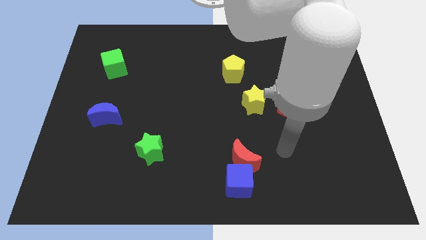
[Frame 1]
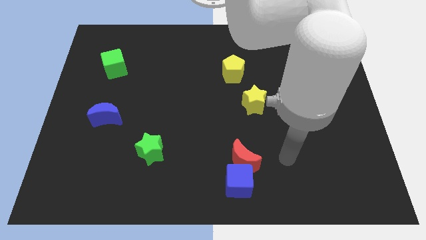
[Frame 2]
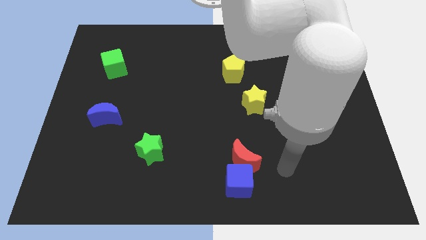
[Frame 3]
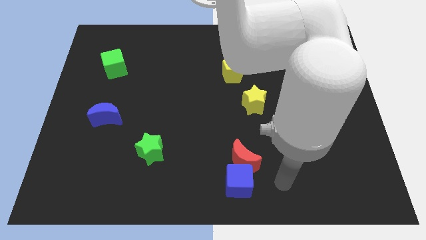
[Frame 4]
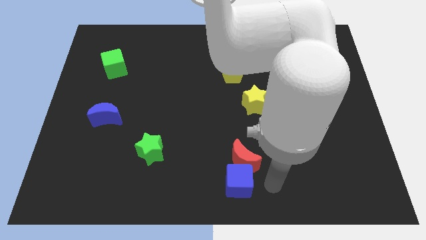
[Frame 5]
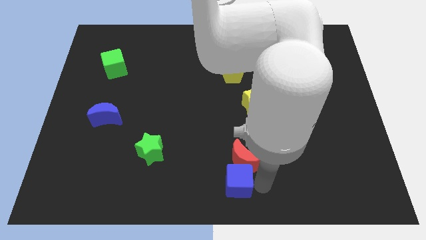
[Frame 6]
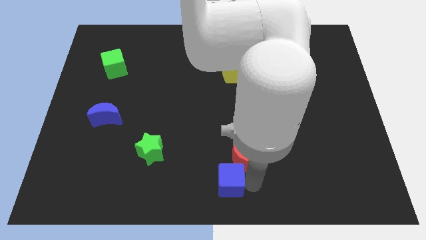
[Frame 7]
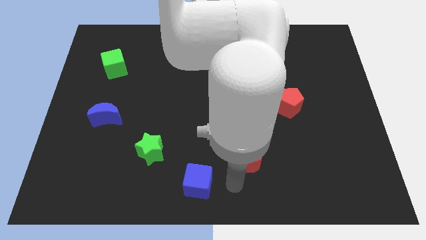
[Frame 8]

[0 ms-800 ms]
separate the red moon from the blue cube

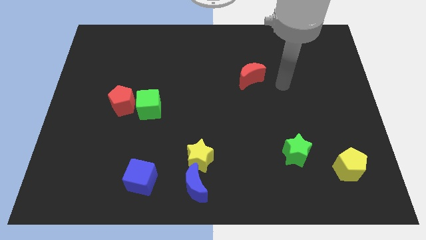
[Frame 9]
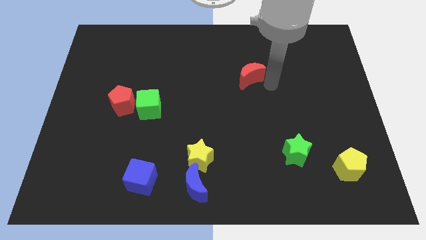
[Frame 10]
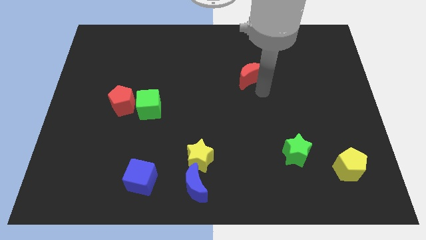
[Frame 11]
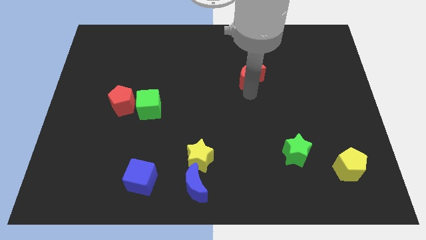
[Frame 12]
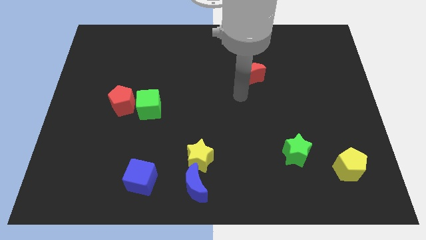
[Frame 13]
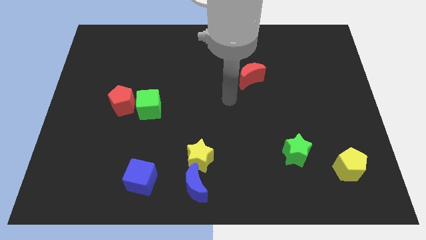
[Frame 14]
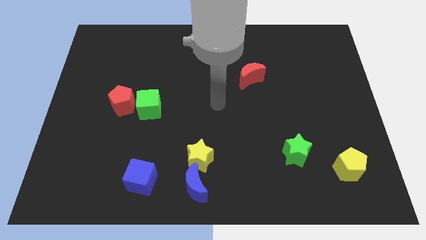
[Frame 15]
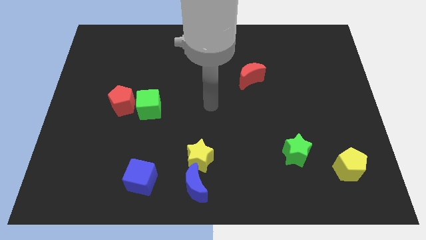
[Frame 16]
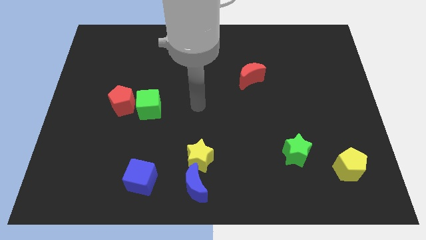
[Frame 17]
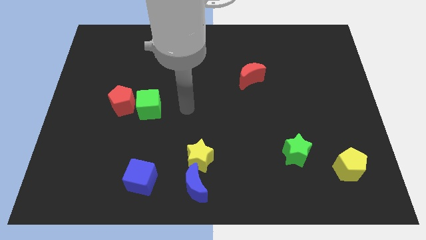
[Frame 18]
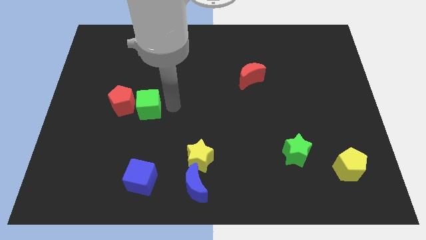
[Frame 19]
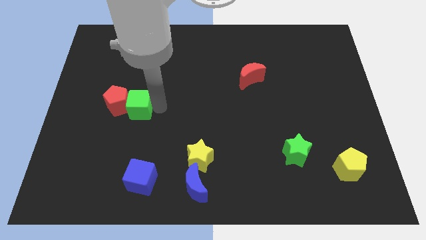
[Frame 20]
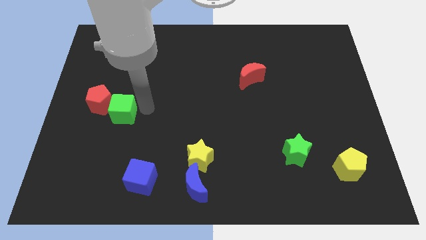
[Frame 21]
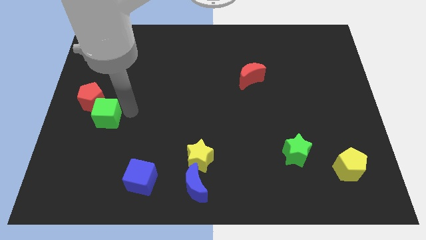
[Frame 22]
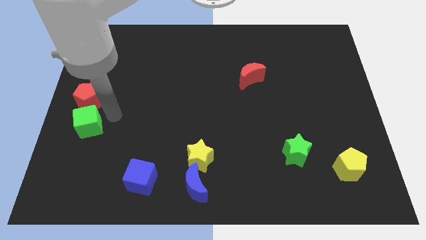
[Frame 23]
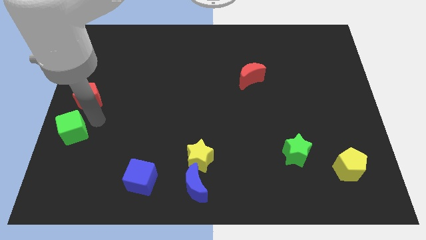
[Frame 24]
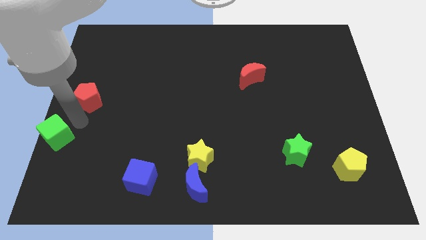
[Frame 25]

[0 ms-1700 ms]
move the red pentagon away from the green cube

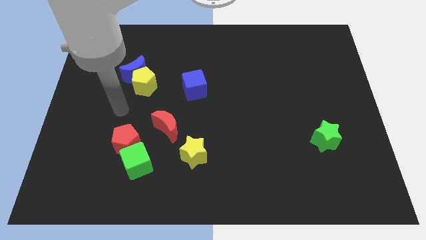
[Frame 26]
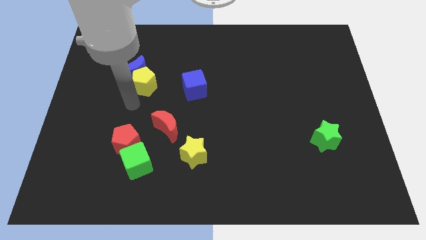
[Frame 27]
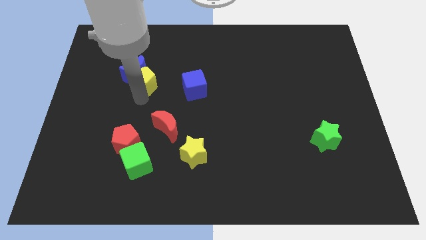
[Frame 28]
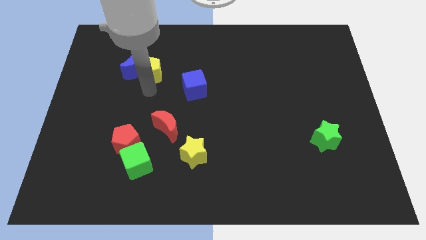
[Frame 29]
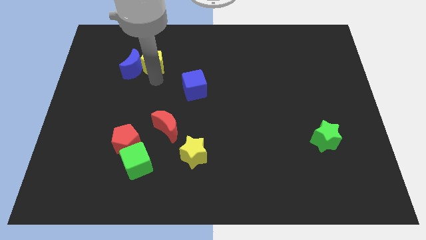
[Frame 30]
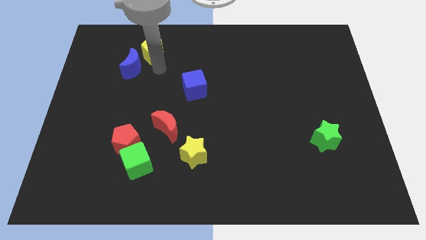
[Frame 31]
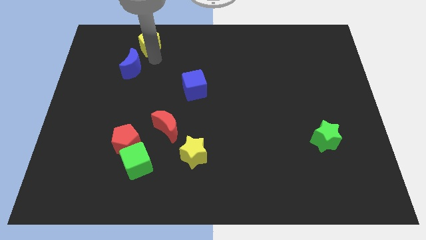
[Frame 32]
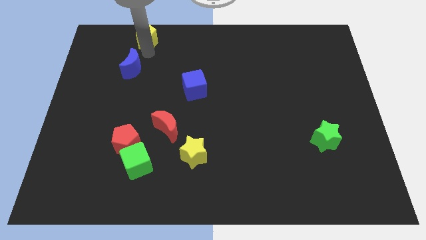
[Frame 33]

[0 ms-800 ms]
separate the blue moon from the yellow pentagon

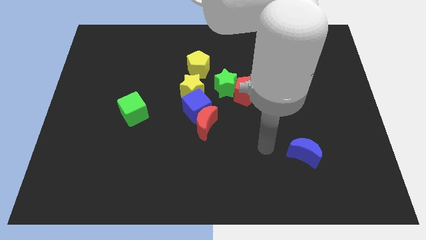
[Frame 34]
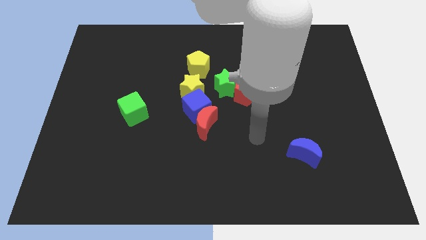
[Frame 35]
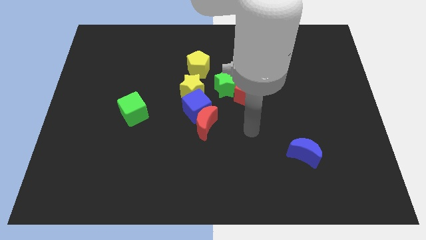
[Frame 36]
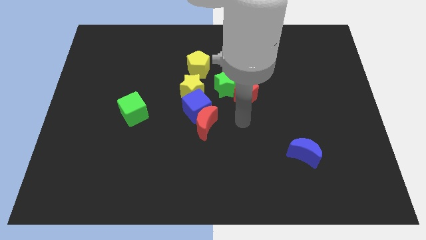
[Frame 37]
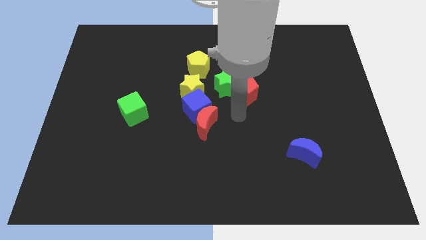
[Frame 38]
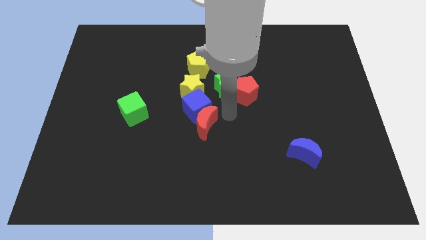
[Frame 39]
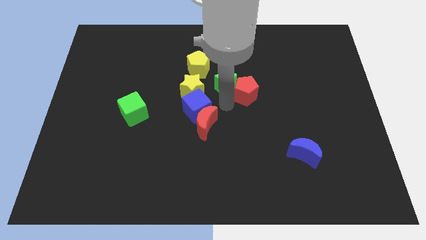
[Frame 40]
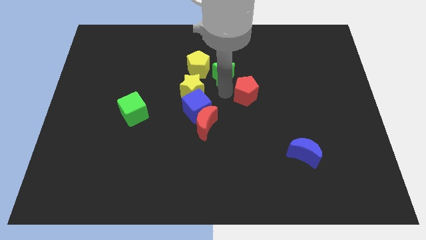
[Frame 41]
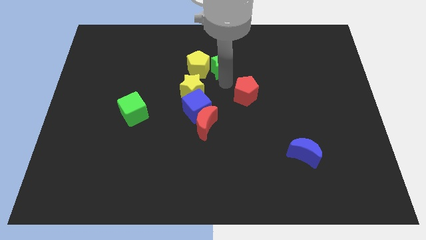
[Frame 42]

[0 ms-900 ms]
separate the red pentagon from the green star

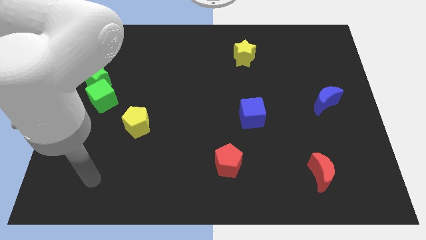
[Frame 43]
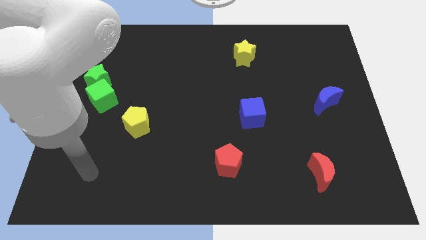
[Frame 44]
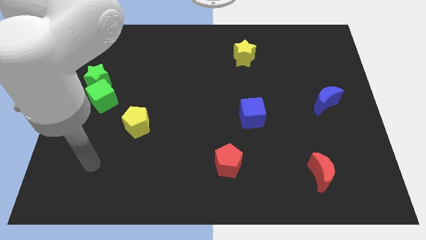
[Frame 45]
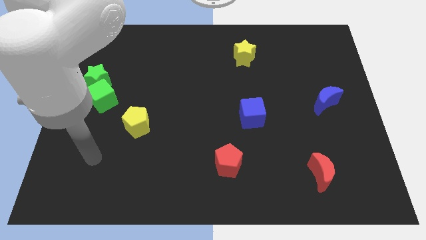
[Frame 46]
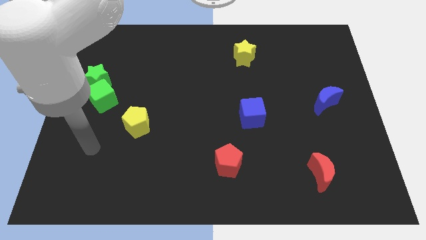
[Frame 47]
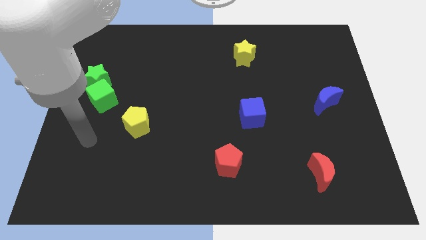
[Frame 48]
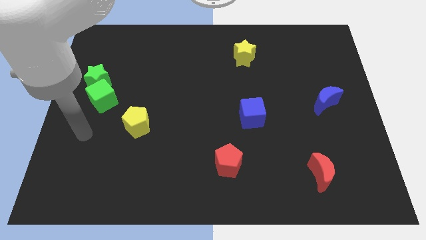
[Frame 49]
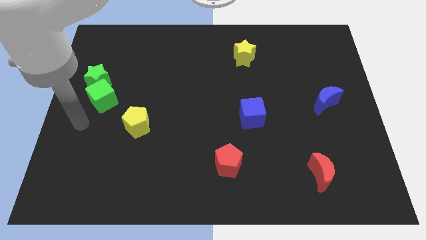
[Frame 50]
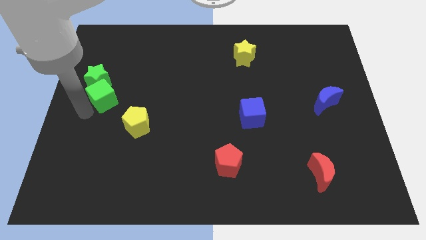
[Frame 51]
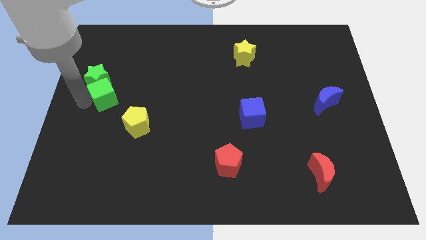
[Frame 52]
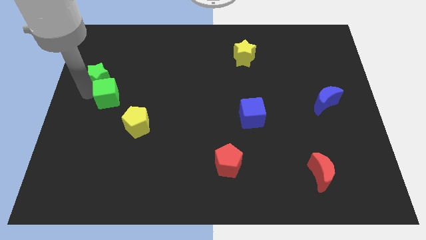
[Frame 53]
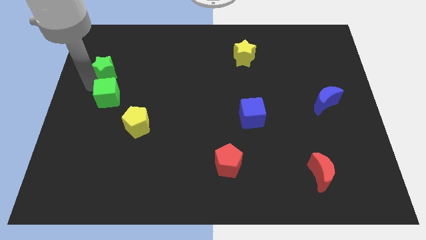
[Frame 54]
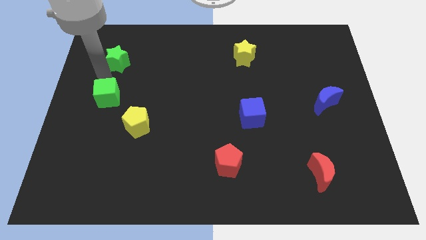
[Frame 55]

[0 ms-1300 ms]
pull the green cube apart from the green star

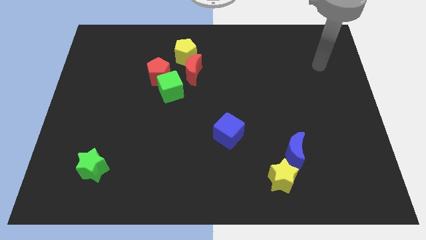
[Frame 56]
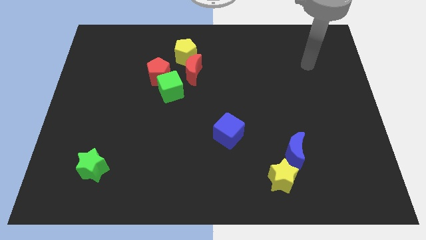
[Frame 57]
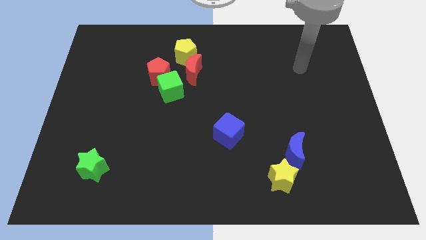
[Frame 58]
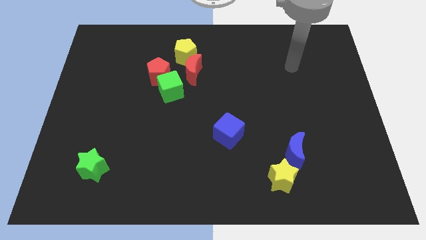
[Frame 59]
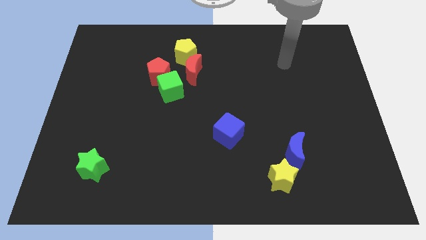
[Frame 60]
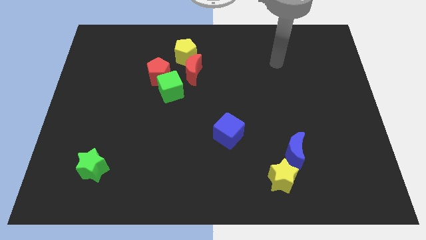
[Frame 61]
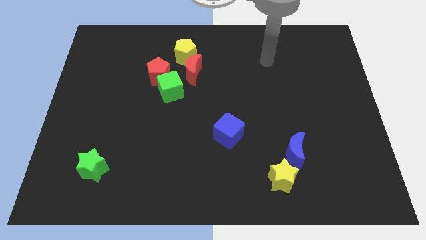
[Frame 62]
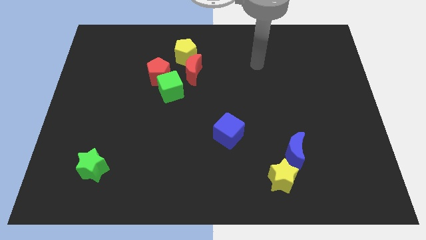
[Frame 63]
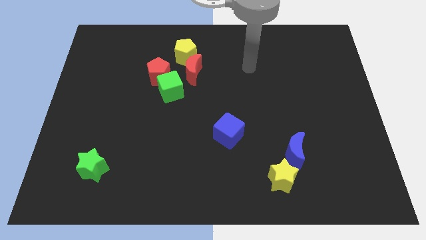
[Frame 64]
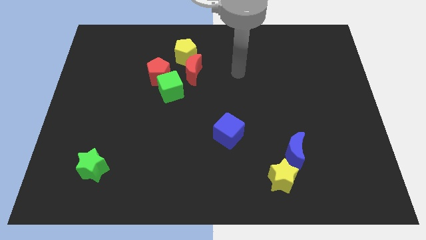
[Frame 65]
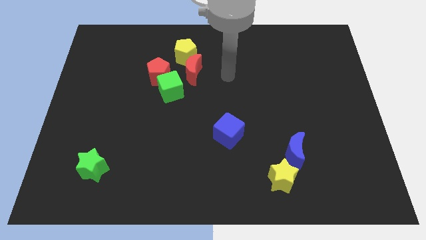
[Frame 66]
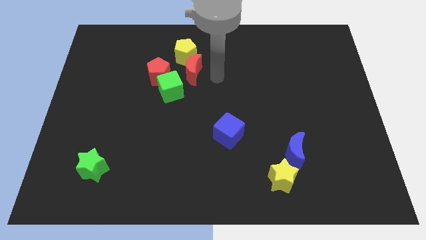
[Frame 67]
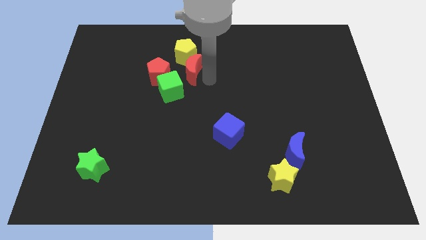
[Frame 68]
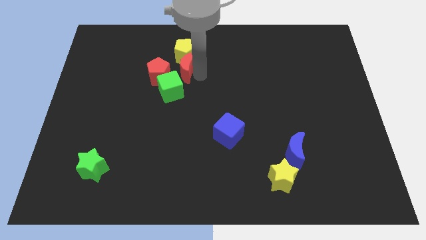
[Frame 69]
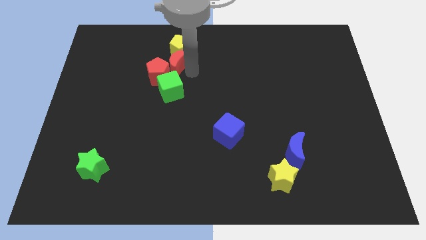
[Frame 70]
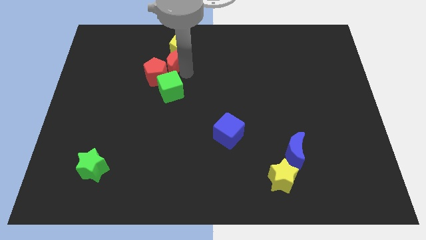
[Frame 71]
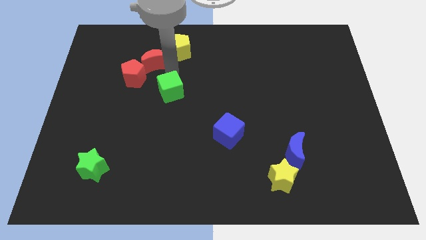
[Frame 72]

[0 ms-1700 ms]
pull the green cube apart from the red pentagon and red moon

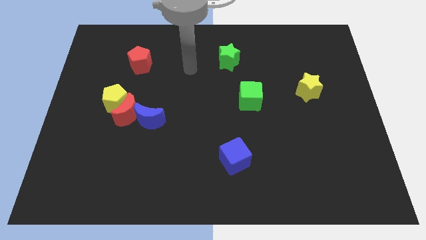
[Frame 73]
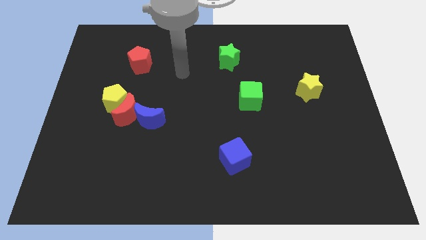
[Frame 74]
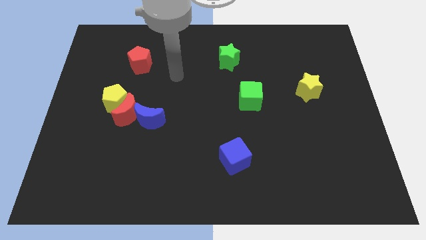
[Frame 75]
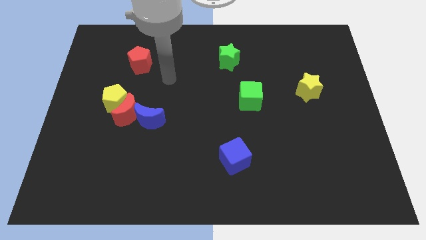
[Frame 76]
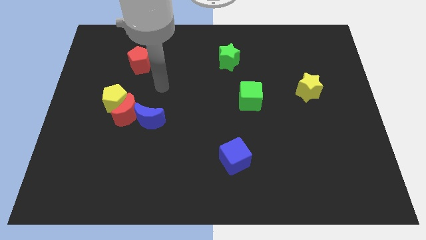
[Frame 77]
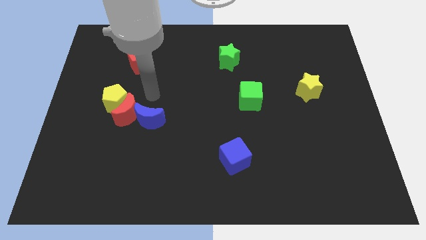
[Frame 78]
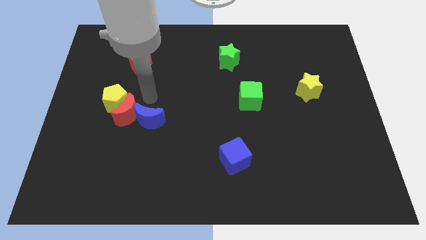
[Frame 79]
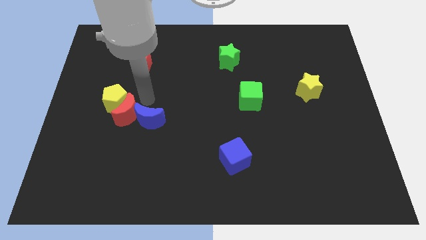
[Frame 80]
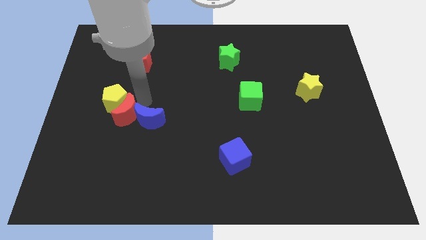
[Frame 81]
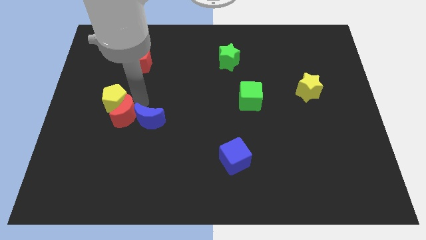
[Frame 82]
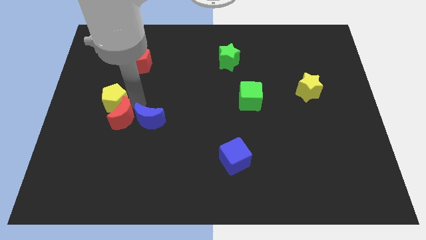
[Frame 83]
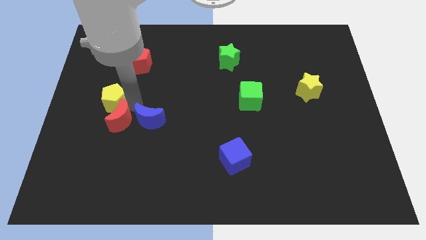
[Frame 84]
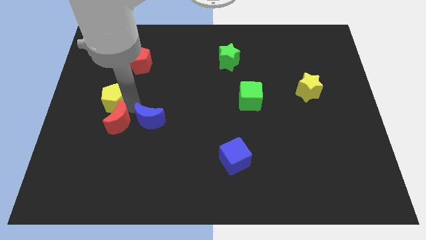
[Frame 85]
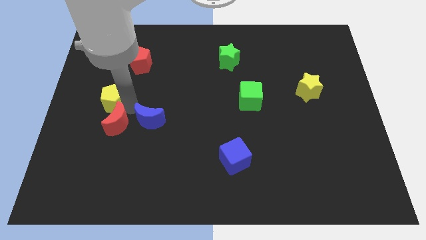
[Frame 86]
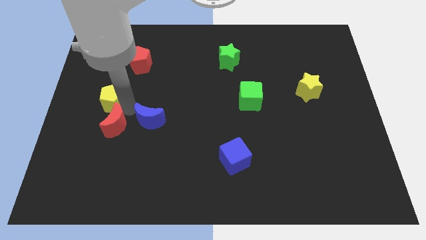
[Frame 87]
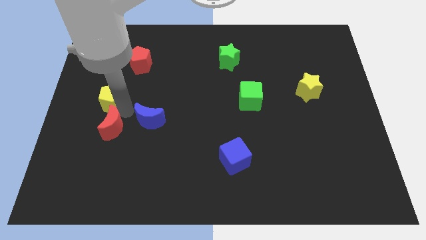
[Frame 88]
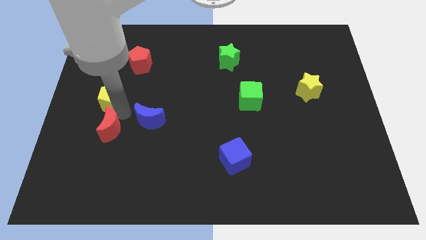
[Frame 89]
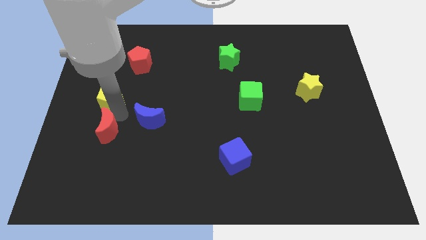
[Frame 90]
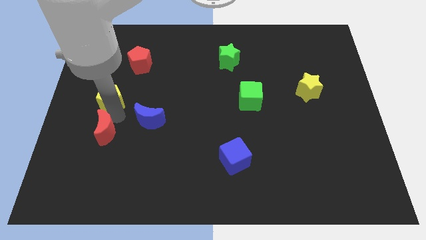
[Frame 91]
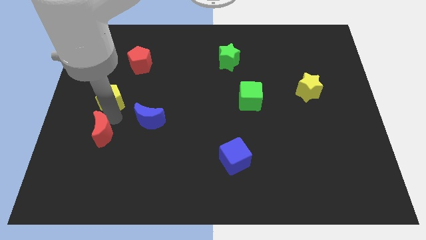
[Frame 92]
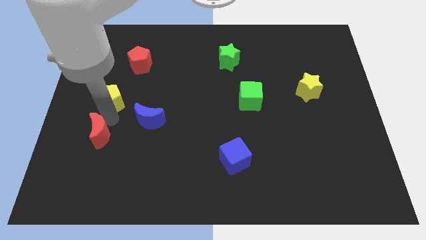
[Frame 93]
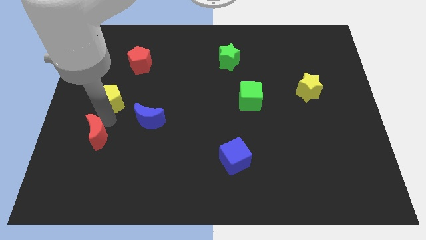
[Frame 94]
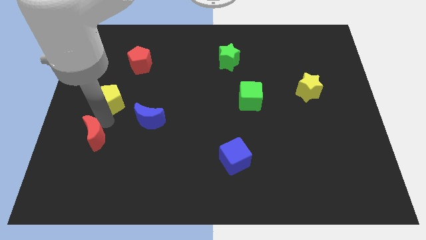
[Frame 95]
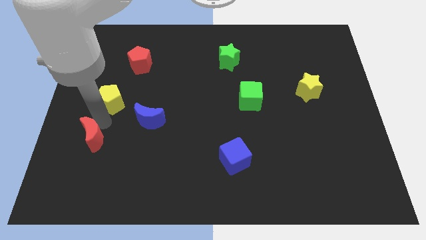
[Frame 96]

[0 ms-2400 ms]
pull the red moon apart from the yellow pentagon and blue moon
